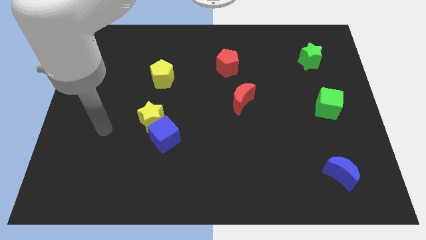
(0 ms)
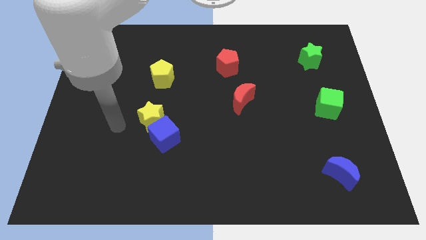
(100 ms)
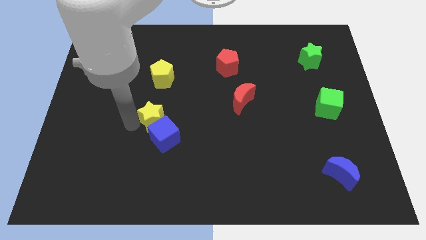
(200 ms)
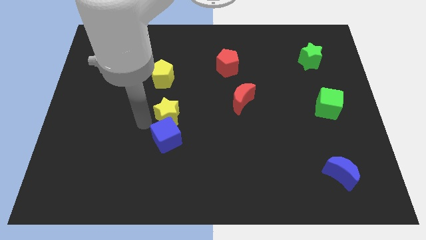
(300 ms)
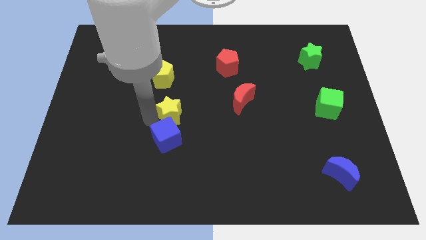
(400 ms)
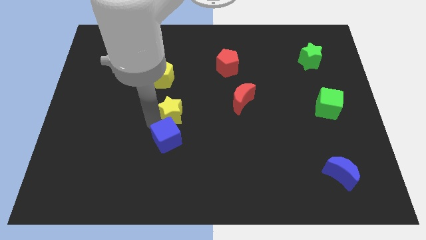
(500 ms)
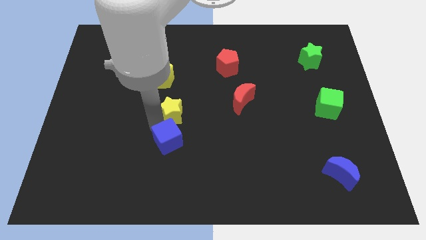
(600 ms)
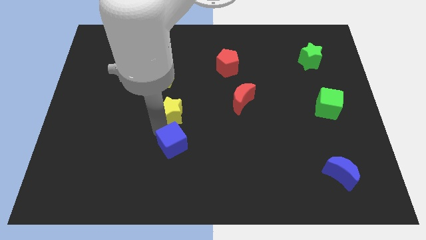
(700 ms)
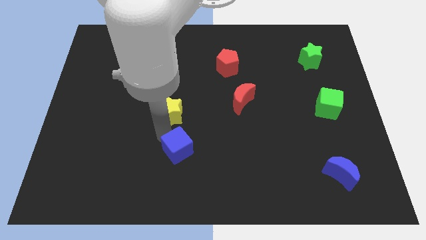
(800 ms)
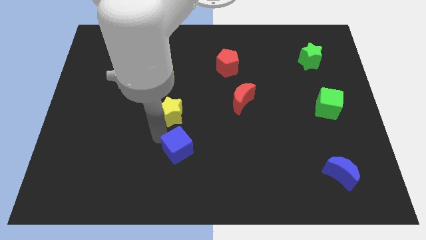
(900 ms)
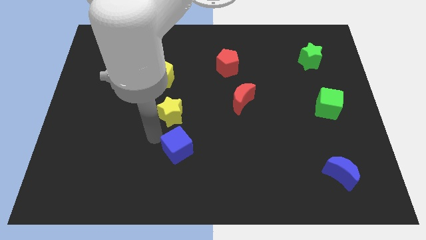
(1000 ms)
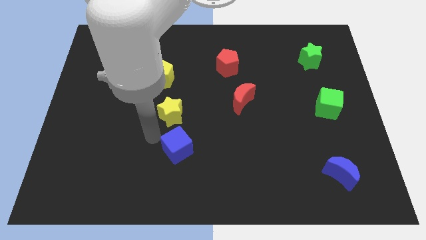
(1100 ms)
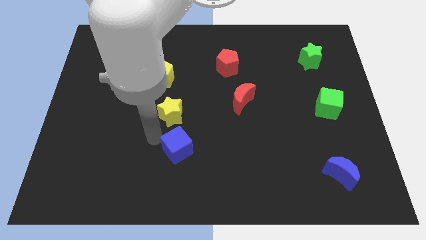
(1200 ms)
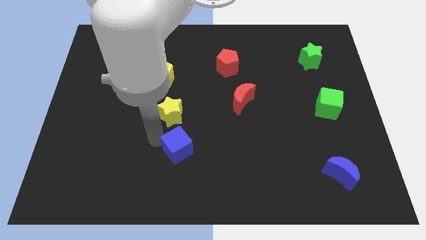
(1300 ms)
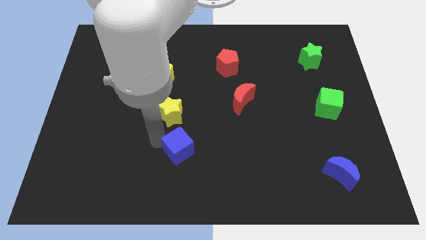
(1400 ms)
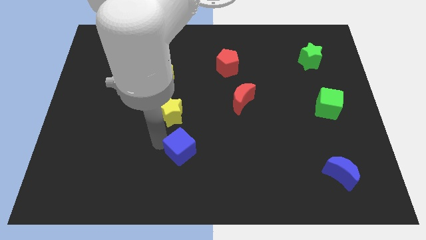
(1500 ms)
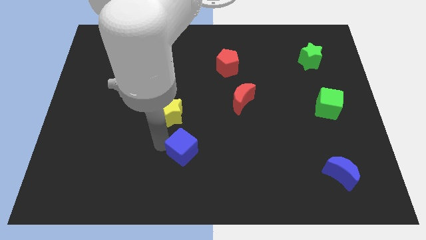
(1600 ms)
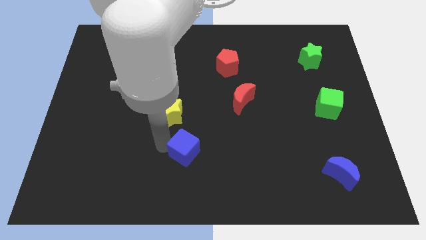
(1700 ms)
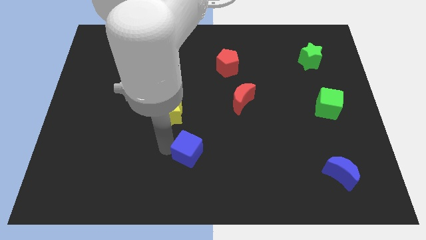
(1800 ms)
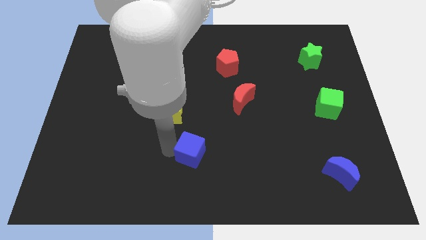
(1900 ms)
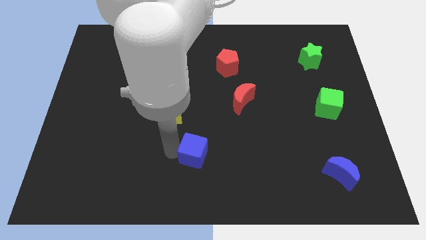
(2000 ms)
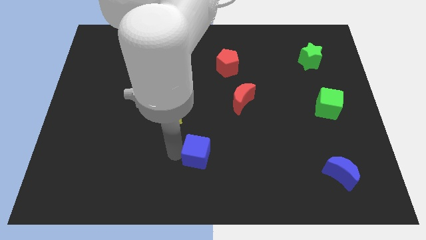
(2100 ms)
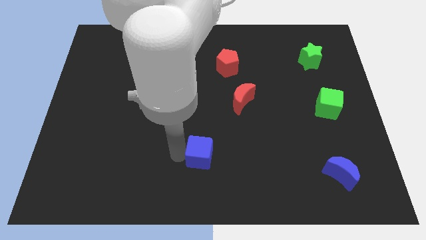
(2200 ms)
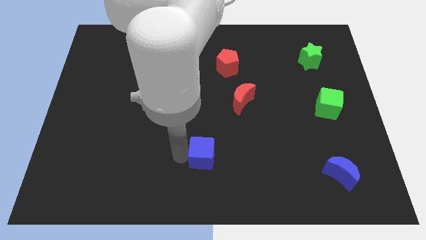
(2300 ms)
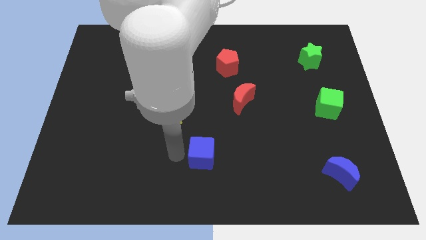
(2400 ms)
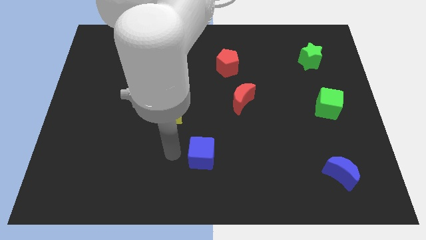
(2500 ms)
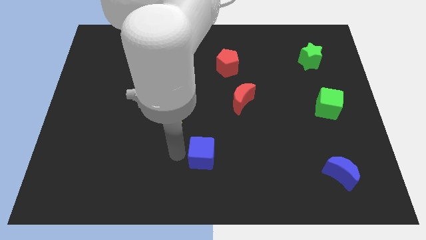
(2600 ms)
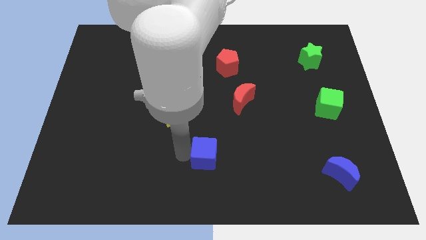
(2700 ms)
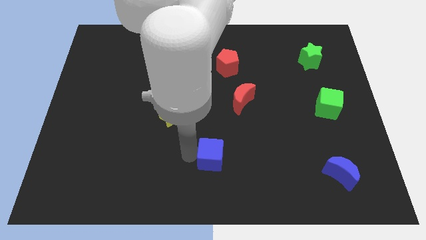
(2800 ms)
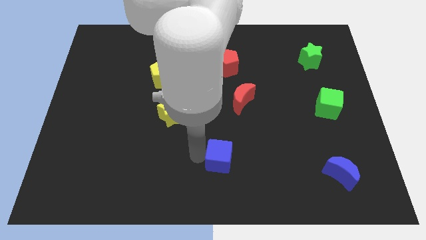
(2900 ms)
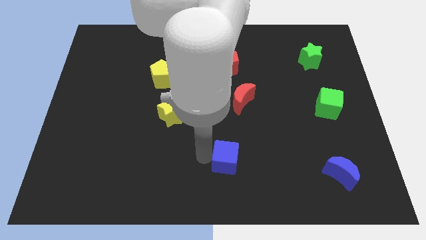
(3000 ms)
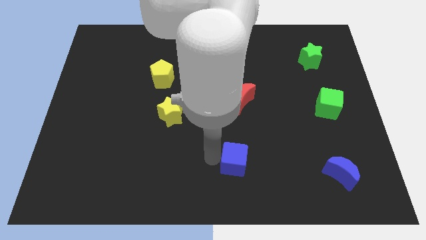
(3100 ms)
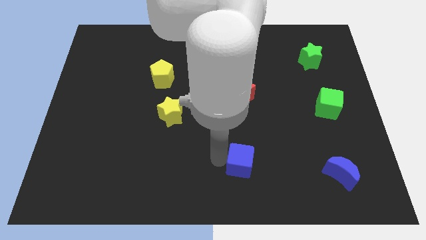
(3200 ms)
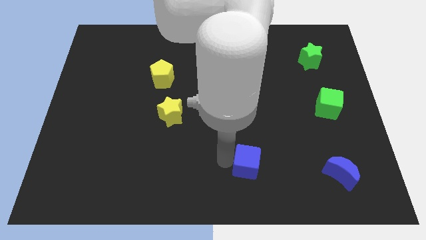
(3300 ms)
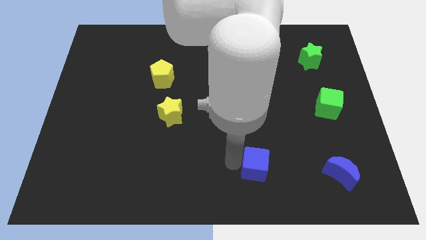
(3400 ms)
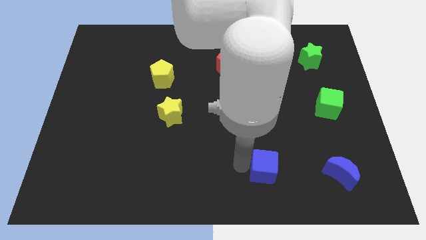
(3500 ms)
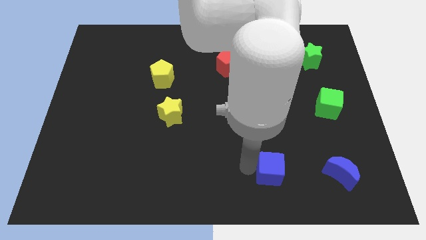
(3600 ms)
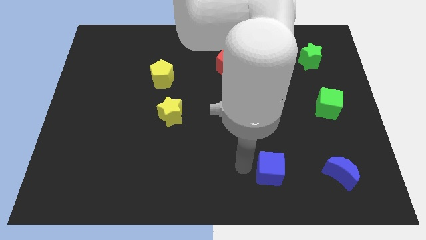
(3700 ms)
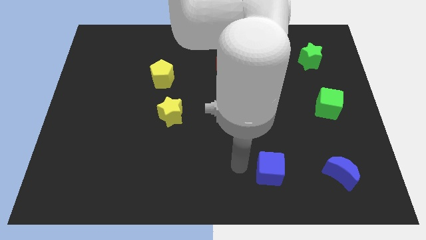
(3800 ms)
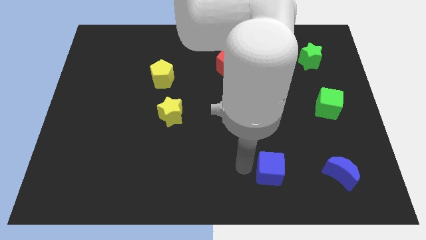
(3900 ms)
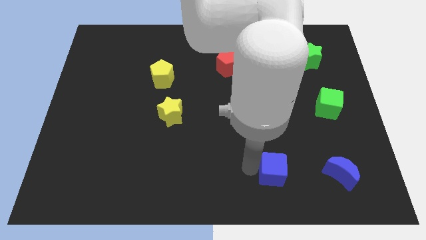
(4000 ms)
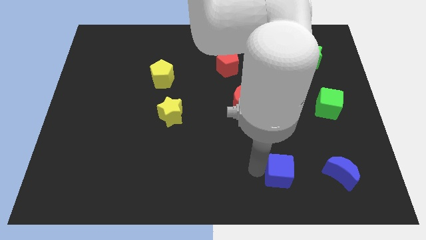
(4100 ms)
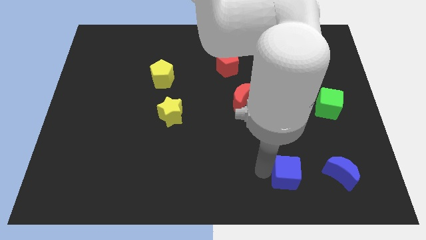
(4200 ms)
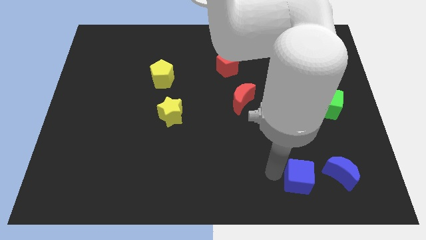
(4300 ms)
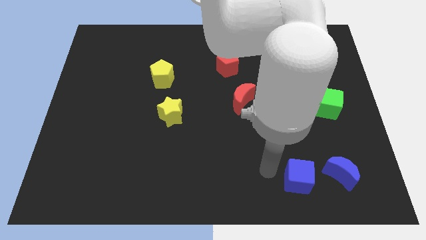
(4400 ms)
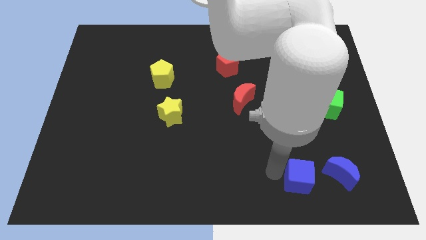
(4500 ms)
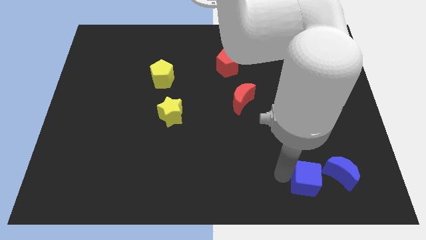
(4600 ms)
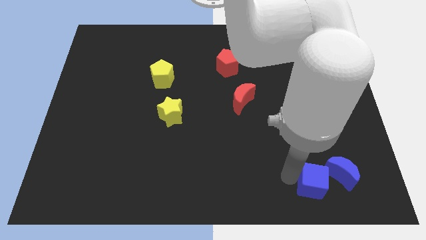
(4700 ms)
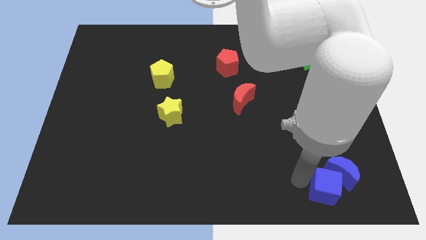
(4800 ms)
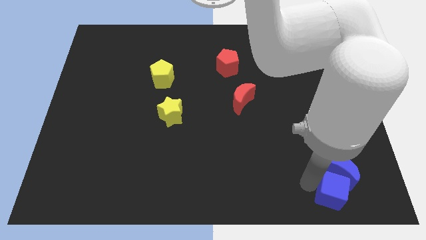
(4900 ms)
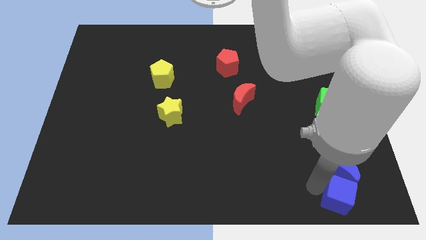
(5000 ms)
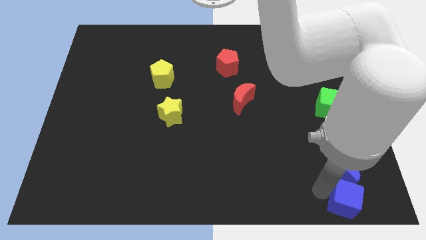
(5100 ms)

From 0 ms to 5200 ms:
move the blue cube to the bottom right

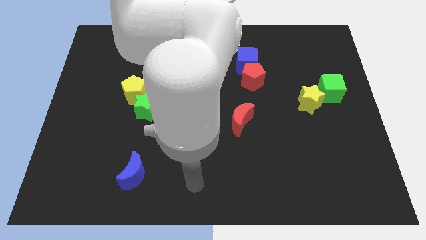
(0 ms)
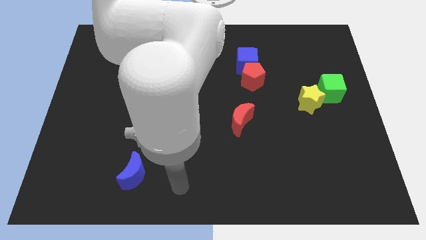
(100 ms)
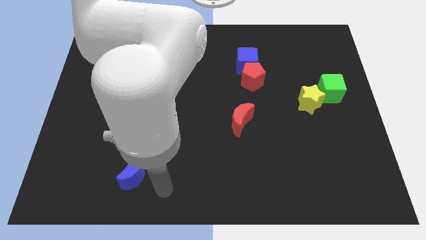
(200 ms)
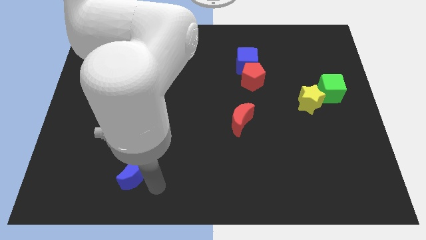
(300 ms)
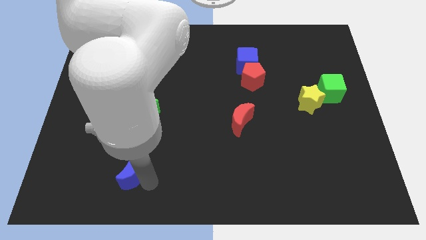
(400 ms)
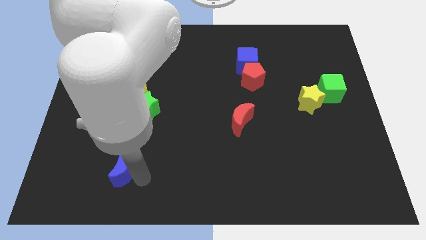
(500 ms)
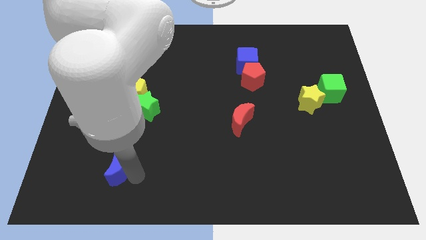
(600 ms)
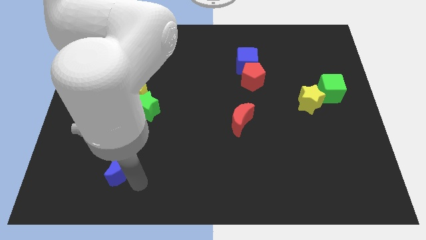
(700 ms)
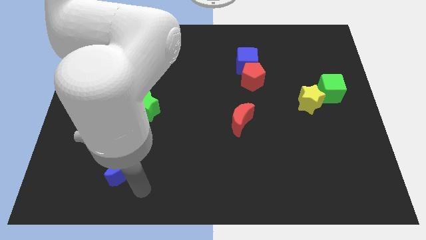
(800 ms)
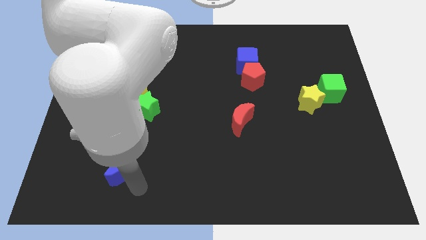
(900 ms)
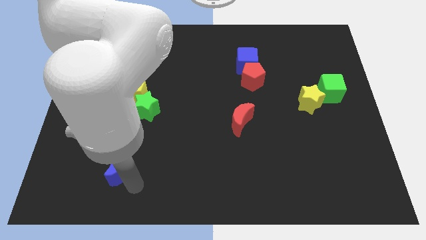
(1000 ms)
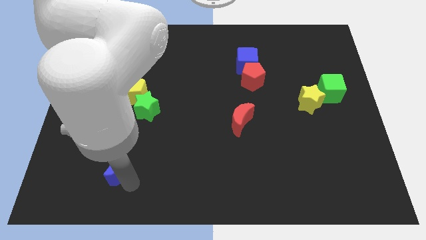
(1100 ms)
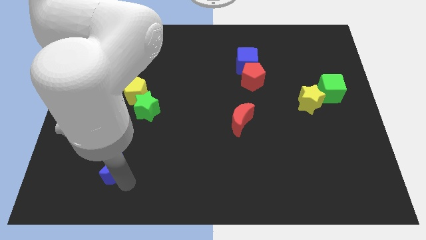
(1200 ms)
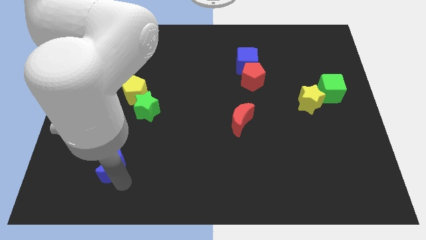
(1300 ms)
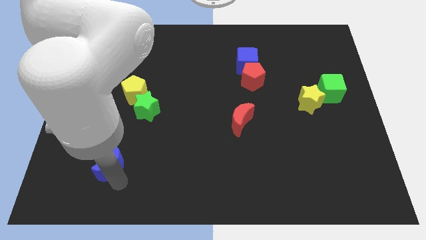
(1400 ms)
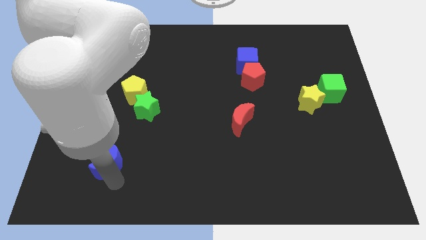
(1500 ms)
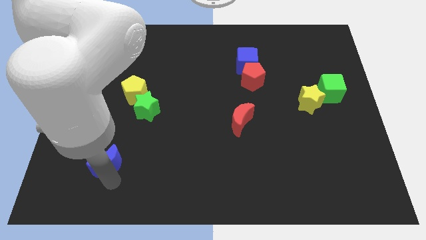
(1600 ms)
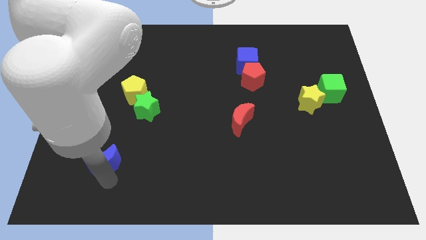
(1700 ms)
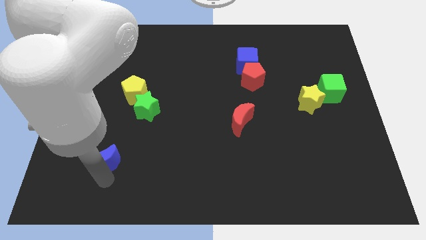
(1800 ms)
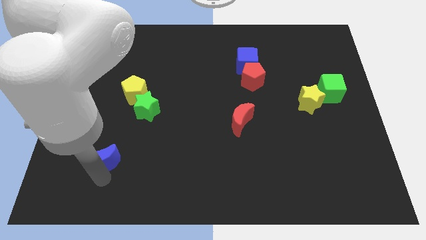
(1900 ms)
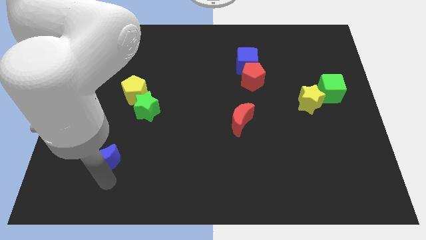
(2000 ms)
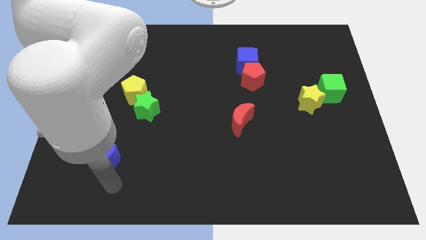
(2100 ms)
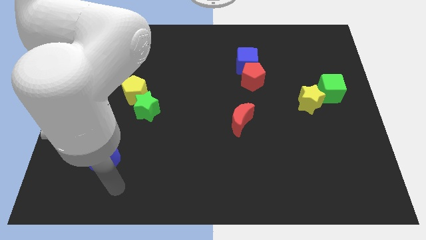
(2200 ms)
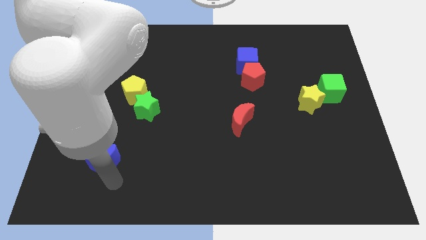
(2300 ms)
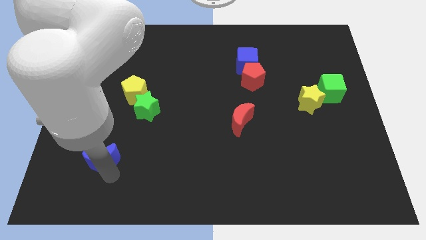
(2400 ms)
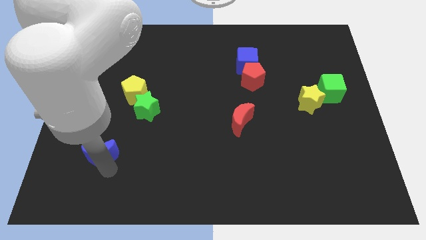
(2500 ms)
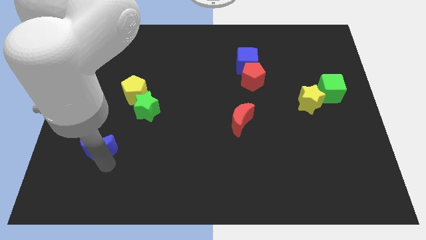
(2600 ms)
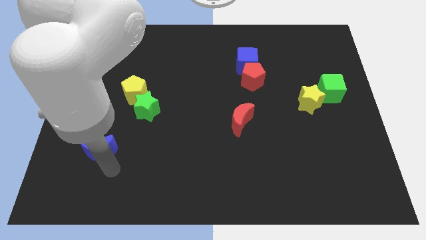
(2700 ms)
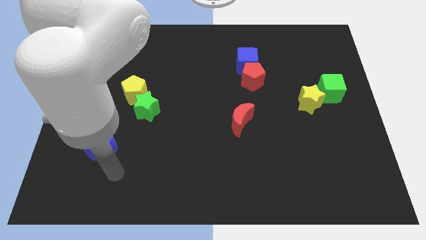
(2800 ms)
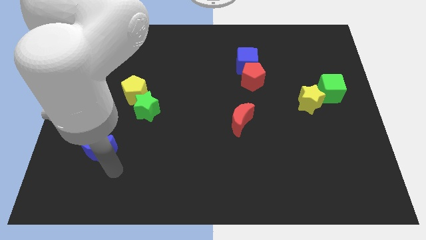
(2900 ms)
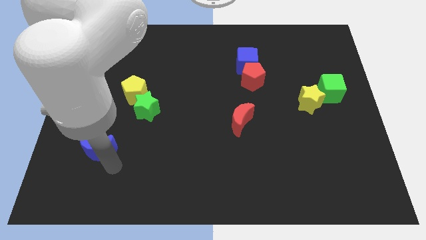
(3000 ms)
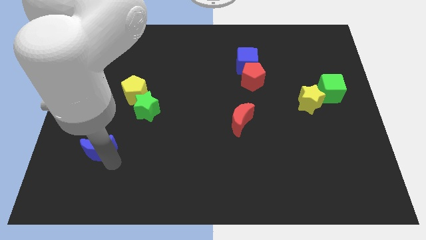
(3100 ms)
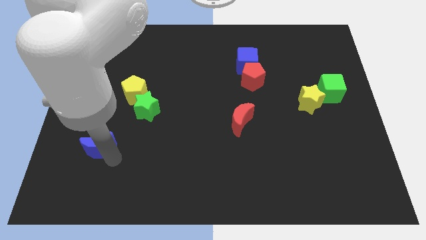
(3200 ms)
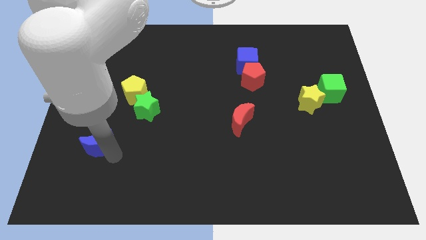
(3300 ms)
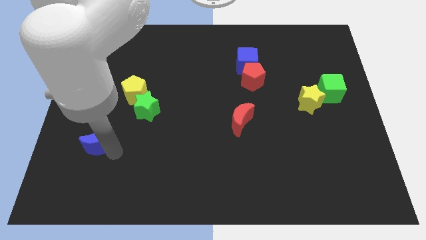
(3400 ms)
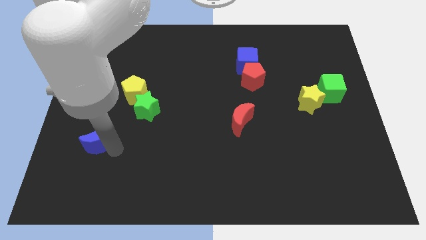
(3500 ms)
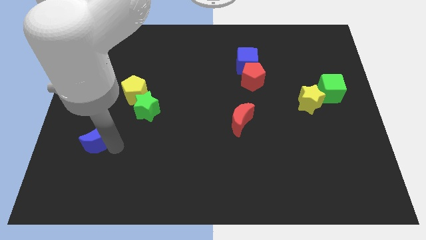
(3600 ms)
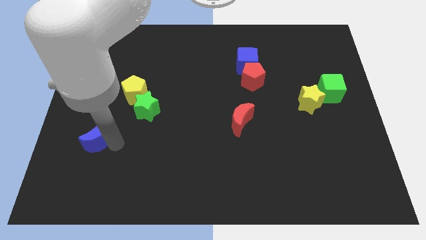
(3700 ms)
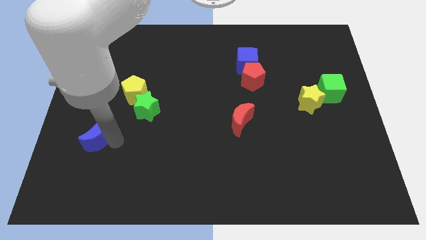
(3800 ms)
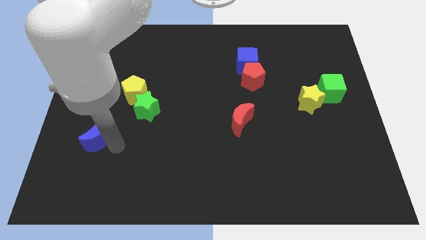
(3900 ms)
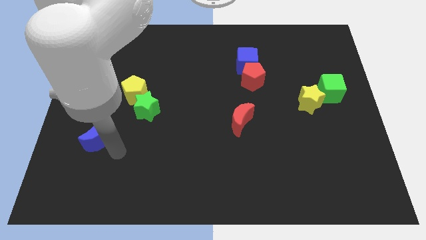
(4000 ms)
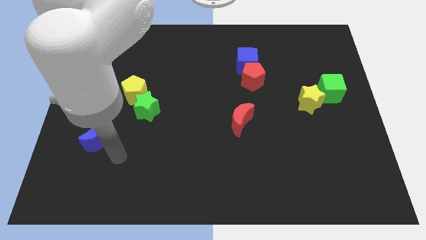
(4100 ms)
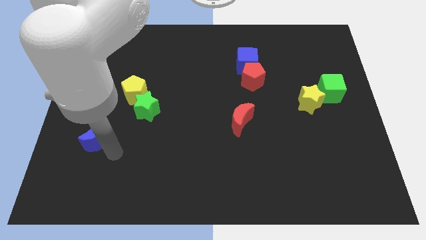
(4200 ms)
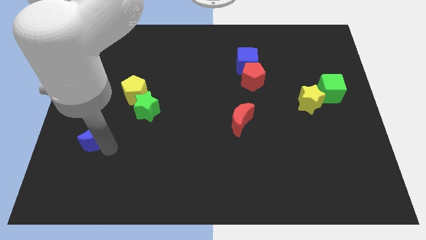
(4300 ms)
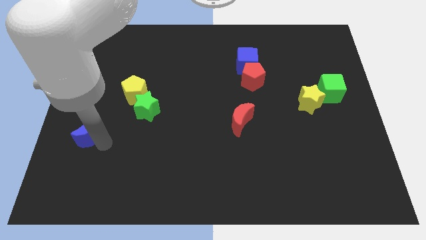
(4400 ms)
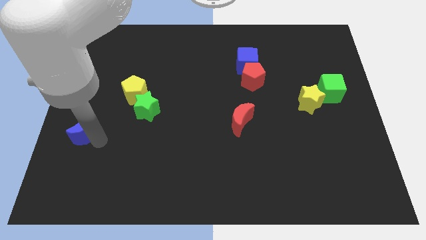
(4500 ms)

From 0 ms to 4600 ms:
move the blue moon to the center left
